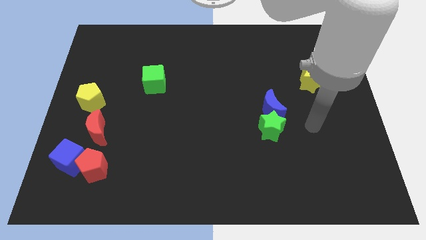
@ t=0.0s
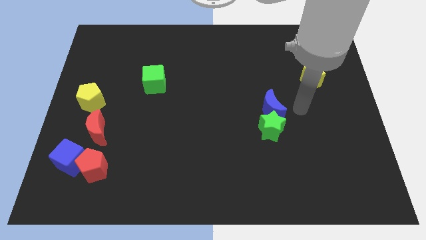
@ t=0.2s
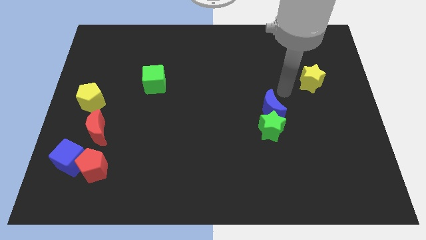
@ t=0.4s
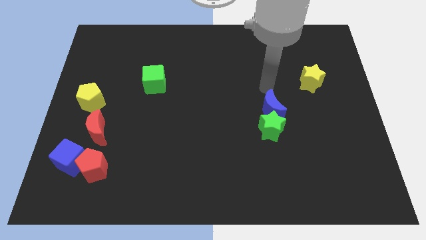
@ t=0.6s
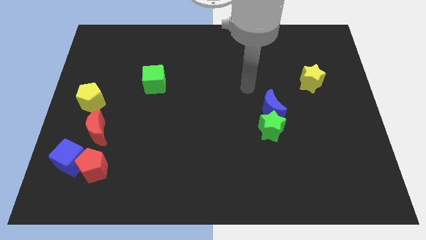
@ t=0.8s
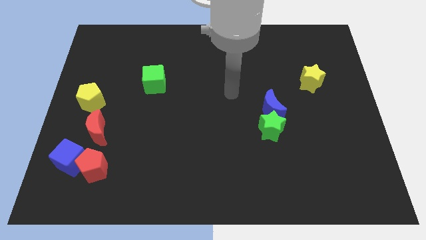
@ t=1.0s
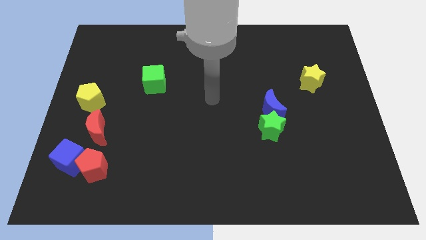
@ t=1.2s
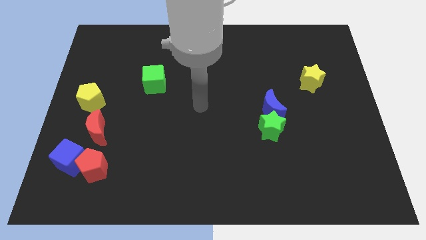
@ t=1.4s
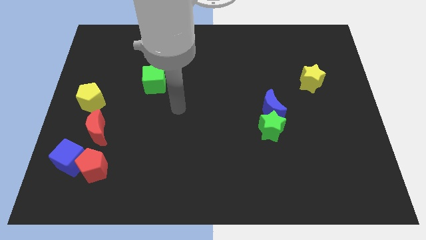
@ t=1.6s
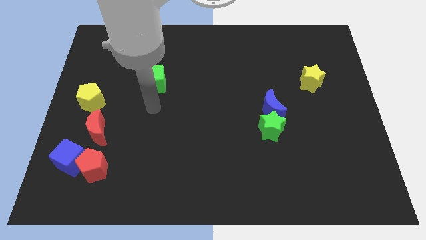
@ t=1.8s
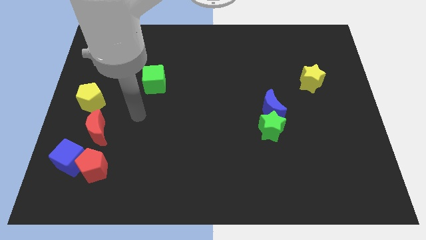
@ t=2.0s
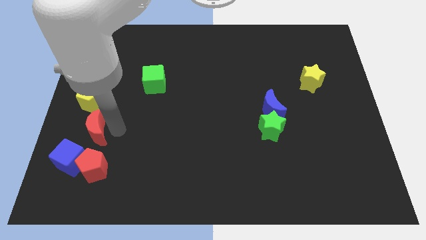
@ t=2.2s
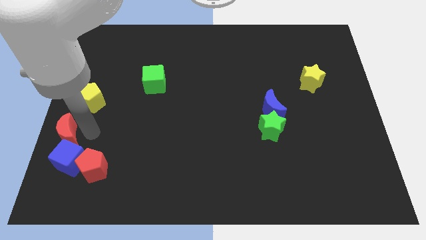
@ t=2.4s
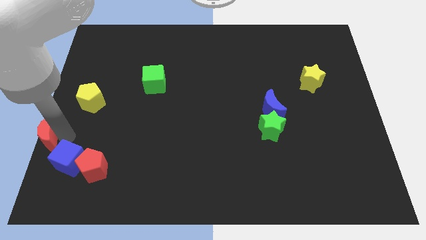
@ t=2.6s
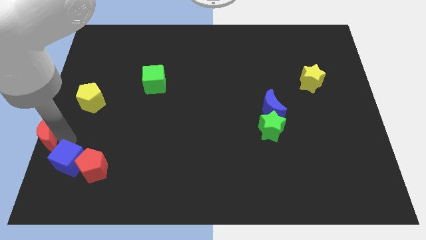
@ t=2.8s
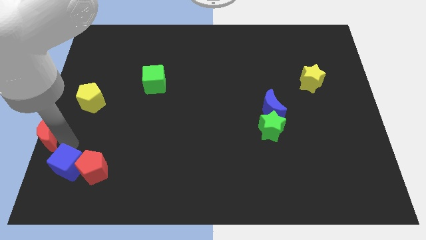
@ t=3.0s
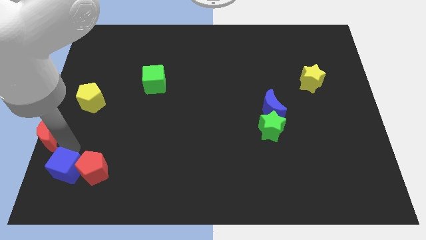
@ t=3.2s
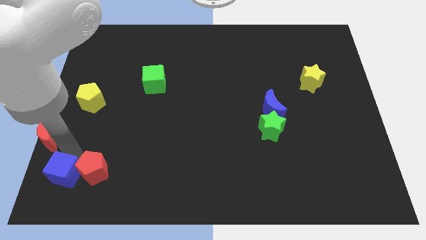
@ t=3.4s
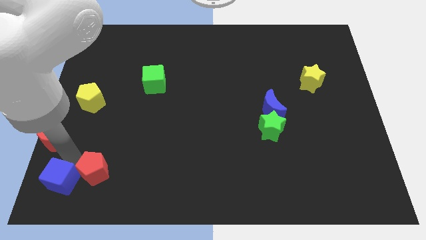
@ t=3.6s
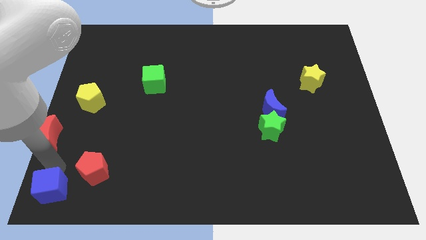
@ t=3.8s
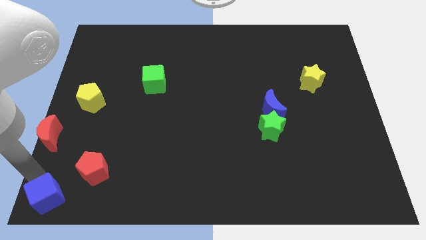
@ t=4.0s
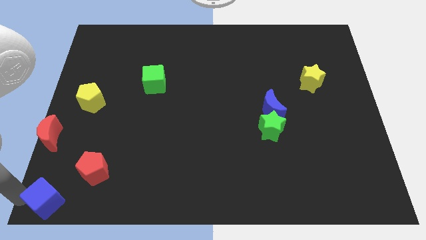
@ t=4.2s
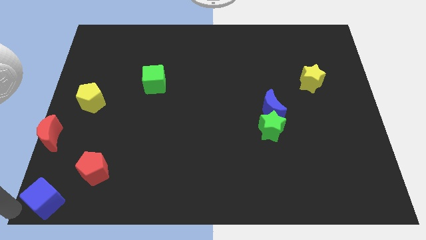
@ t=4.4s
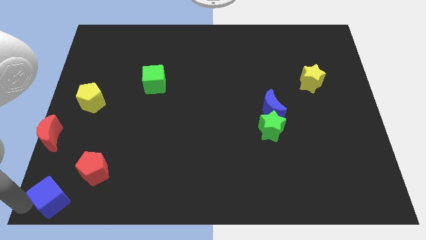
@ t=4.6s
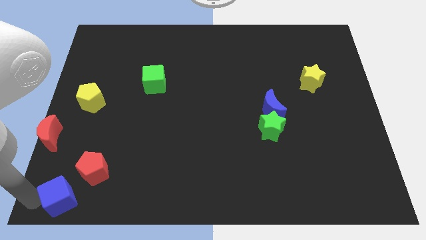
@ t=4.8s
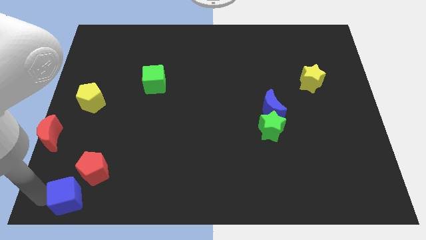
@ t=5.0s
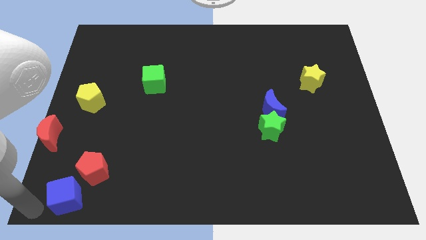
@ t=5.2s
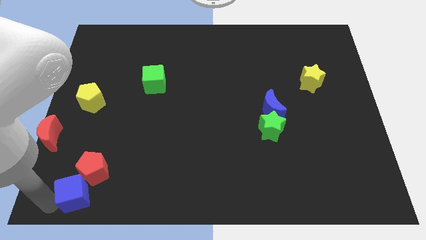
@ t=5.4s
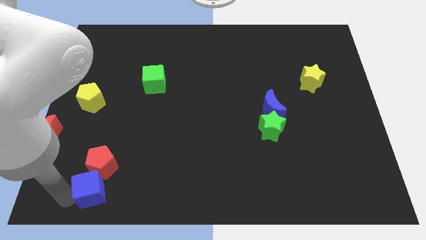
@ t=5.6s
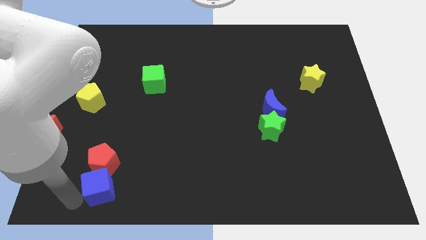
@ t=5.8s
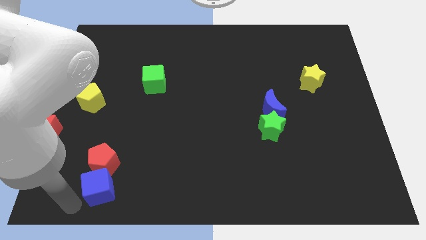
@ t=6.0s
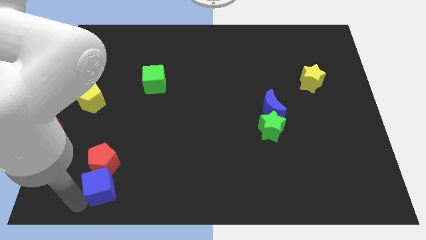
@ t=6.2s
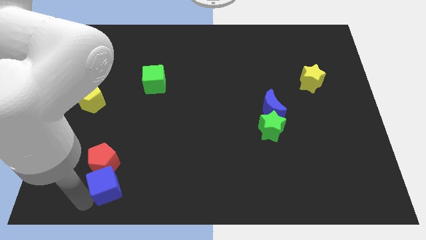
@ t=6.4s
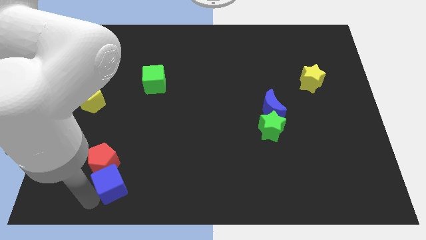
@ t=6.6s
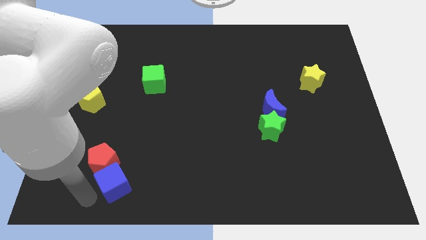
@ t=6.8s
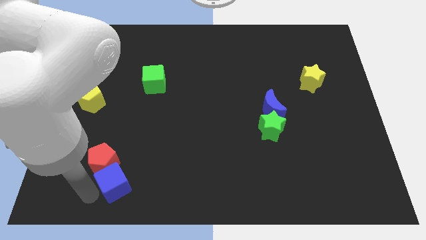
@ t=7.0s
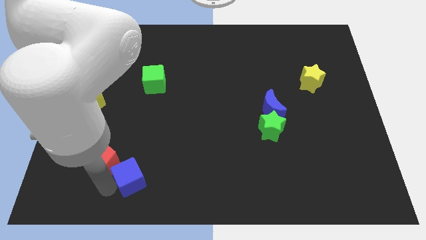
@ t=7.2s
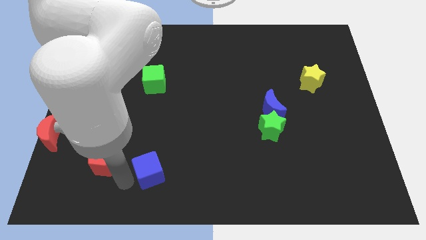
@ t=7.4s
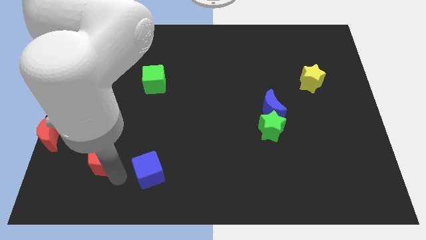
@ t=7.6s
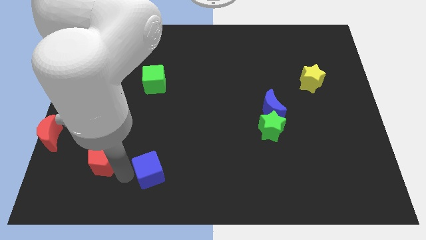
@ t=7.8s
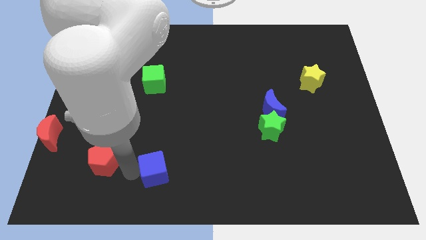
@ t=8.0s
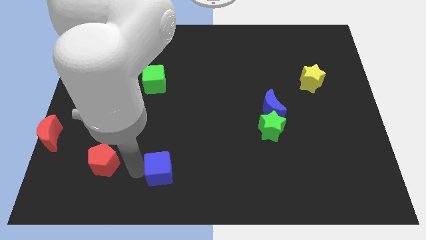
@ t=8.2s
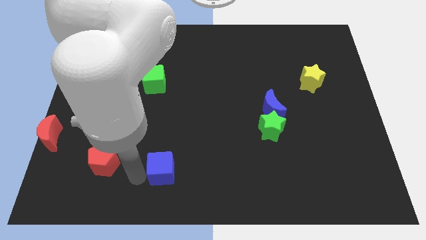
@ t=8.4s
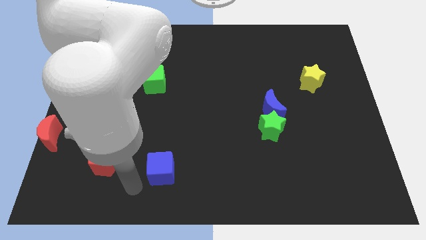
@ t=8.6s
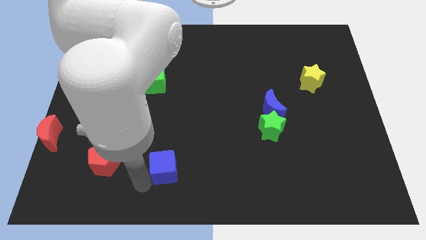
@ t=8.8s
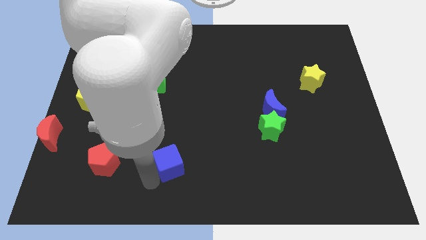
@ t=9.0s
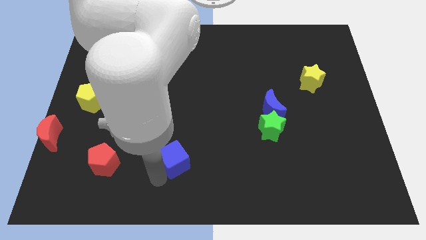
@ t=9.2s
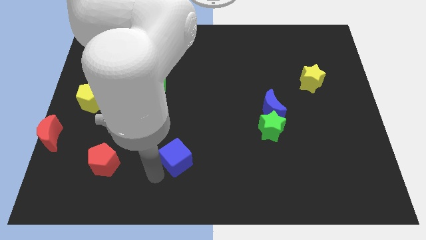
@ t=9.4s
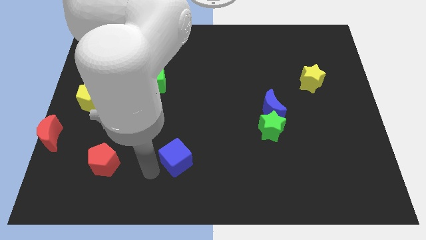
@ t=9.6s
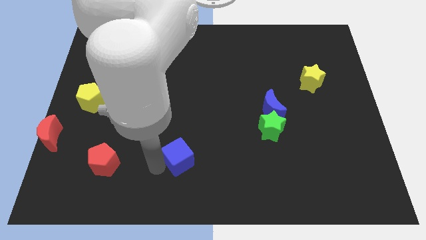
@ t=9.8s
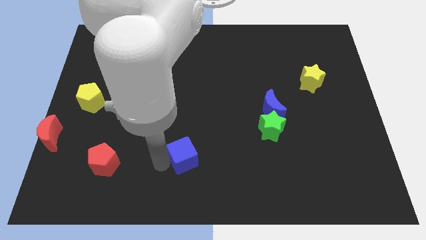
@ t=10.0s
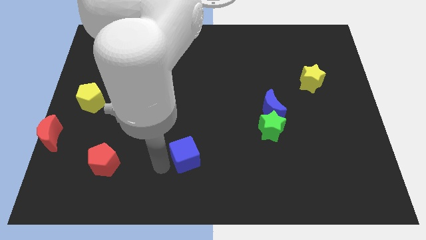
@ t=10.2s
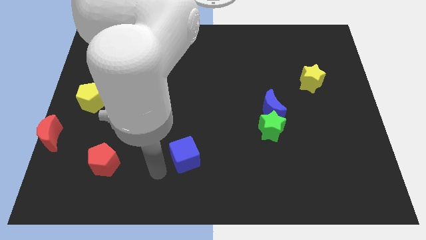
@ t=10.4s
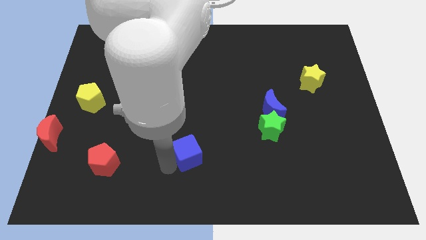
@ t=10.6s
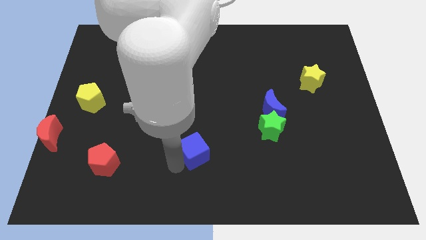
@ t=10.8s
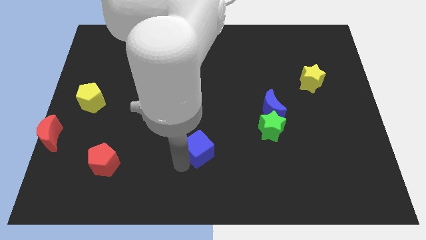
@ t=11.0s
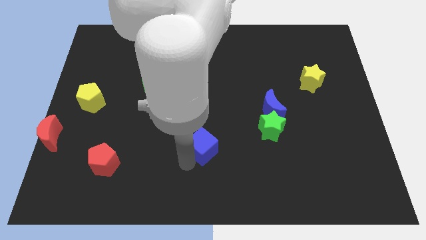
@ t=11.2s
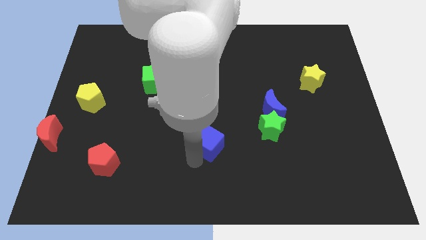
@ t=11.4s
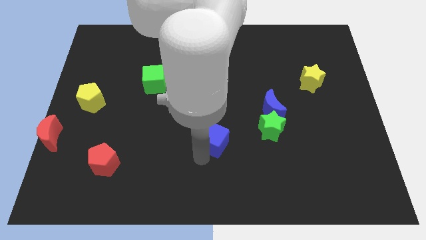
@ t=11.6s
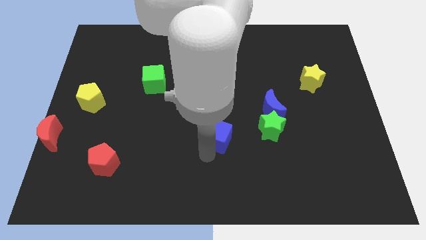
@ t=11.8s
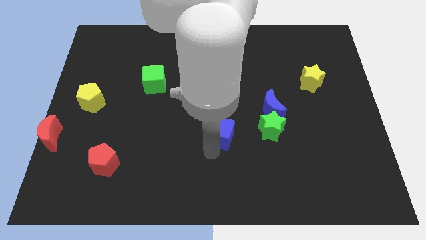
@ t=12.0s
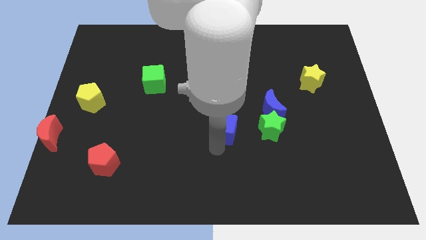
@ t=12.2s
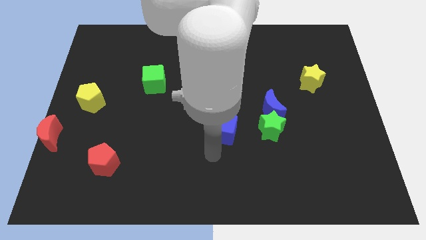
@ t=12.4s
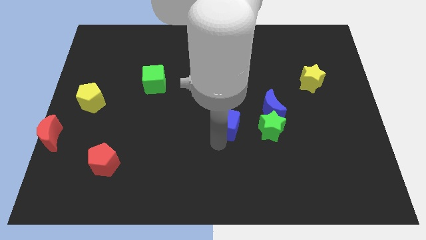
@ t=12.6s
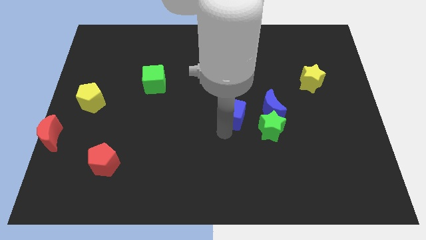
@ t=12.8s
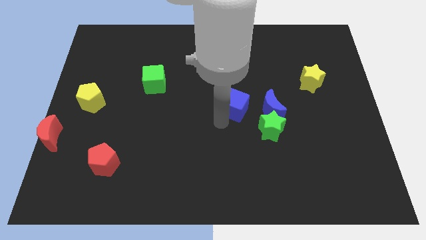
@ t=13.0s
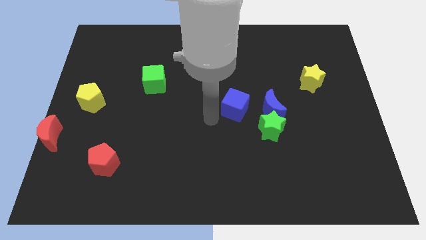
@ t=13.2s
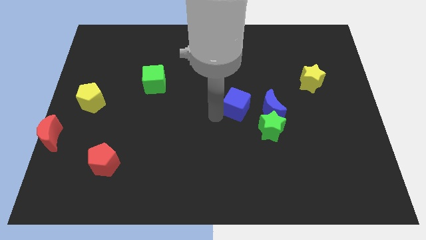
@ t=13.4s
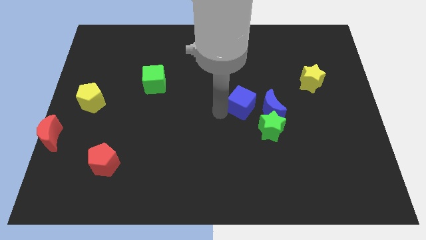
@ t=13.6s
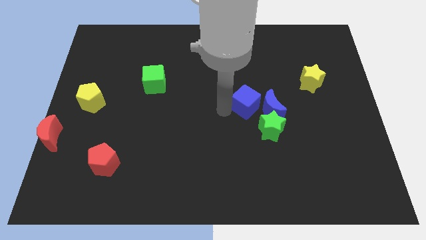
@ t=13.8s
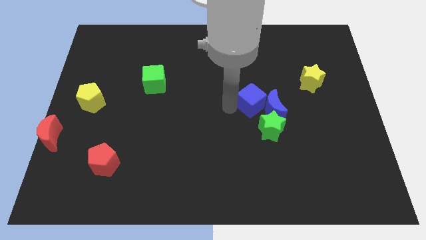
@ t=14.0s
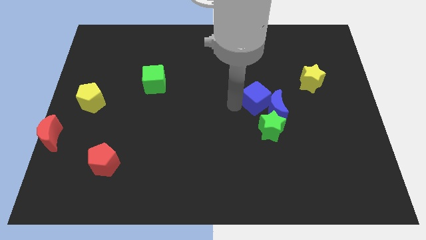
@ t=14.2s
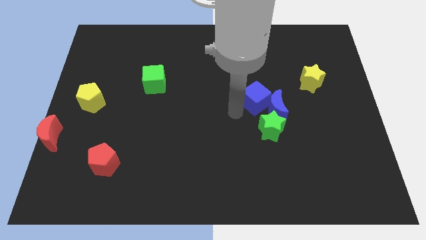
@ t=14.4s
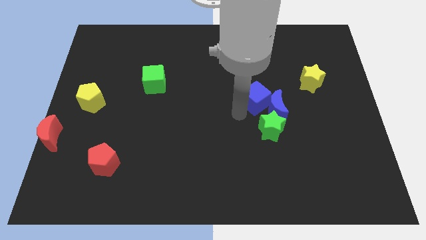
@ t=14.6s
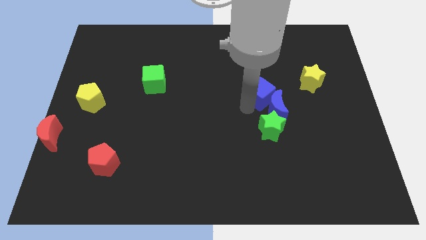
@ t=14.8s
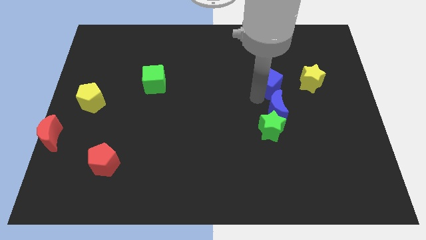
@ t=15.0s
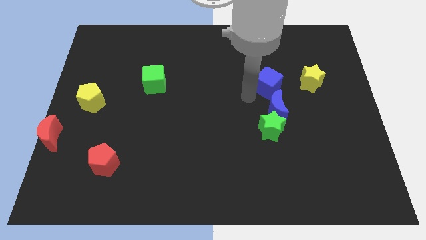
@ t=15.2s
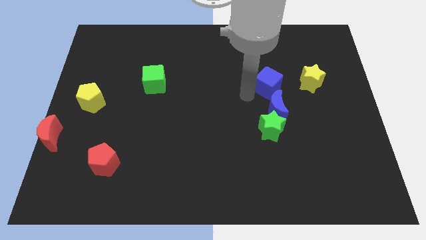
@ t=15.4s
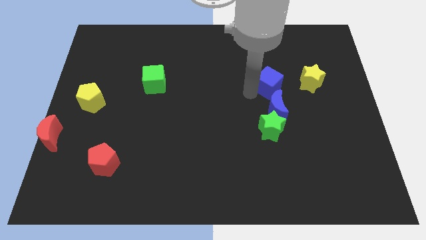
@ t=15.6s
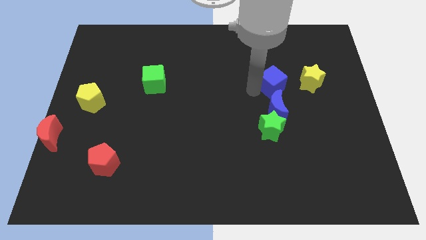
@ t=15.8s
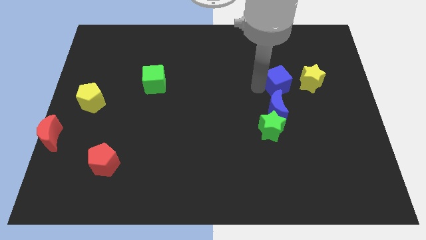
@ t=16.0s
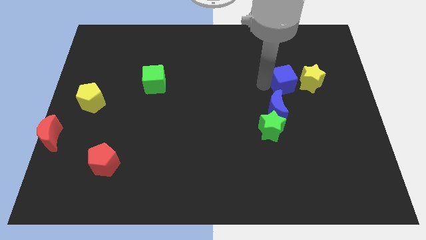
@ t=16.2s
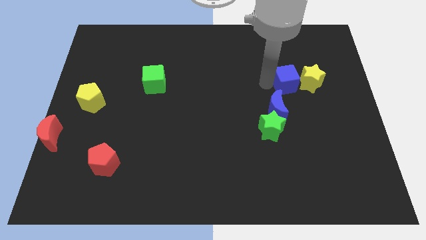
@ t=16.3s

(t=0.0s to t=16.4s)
push the blue cube close to the yellow star
